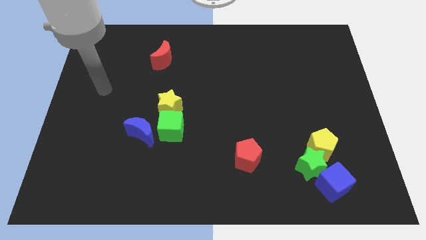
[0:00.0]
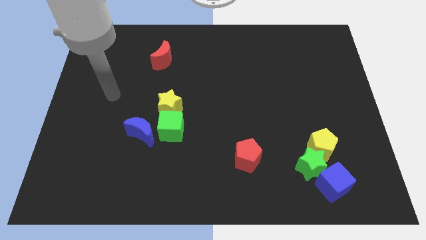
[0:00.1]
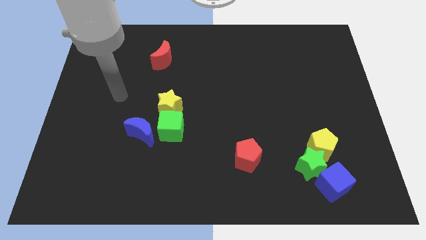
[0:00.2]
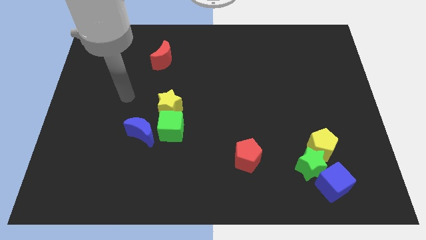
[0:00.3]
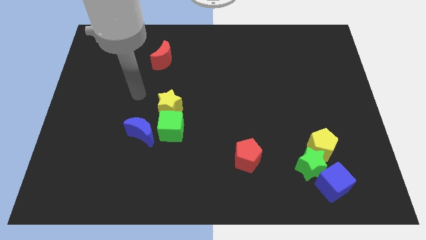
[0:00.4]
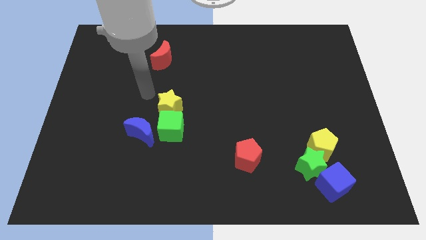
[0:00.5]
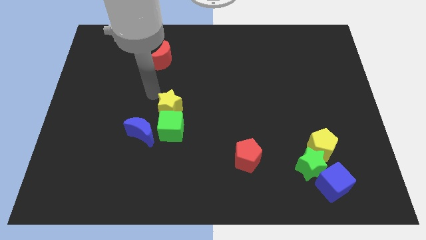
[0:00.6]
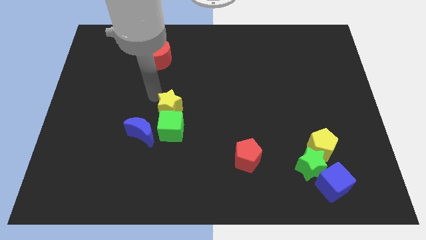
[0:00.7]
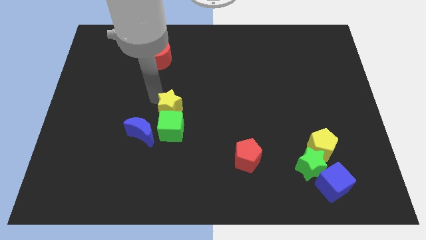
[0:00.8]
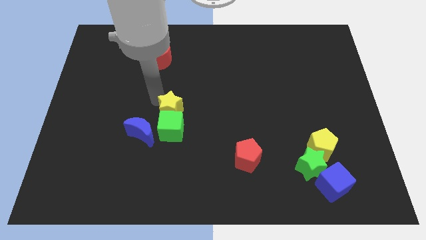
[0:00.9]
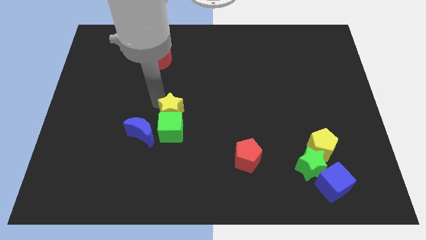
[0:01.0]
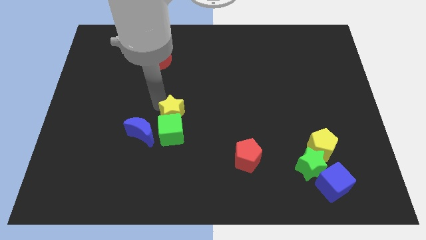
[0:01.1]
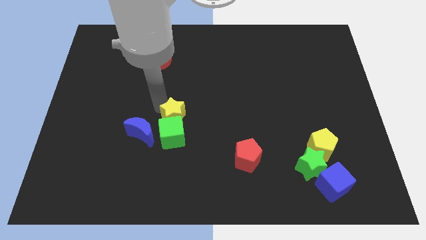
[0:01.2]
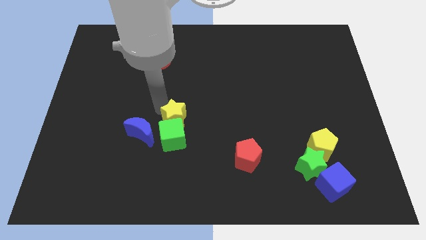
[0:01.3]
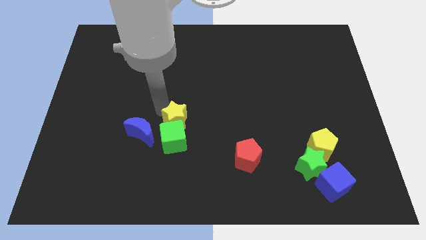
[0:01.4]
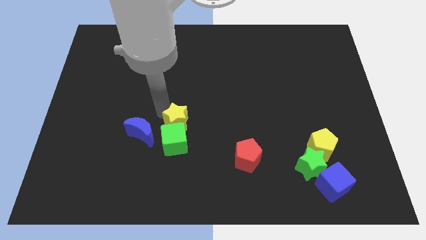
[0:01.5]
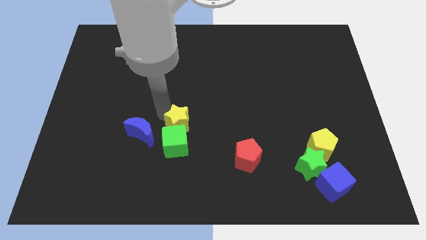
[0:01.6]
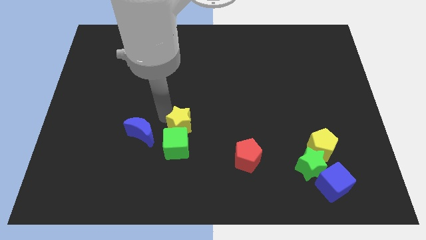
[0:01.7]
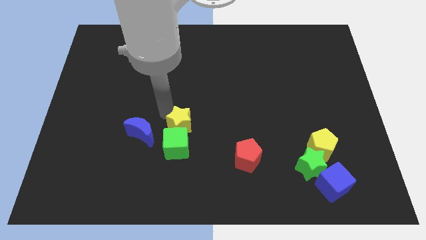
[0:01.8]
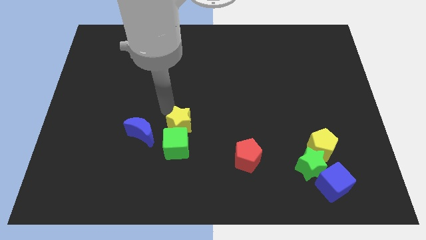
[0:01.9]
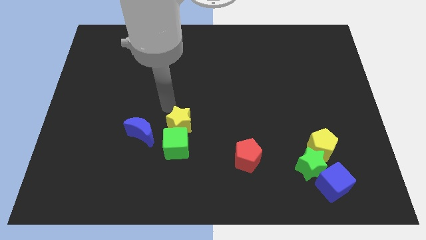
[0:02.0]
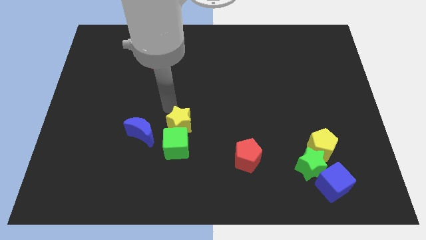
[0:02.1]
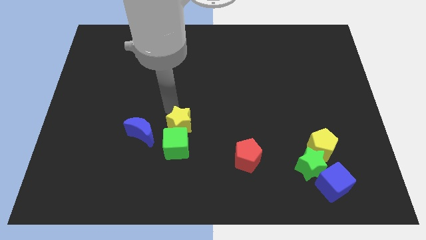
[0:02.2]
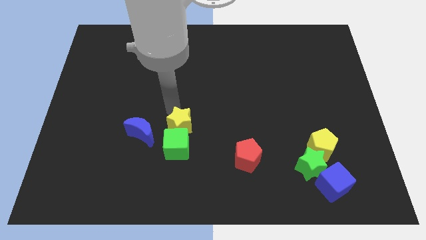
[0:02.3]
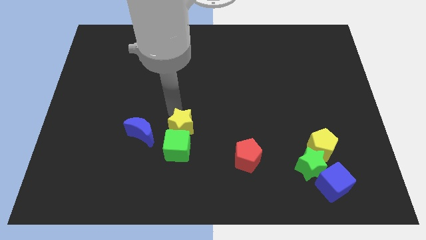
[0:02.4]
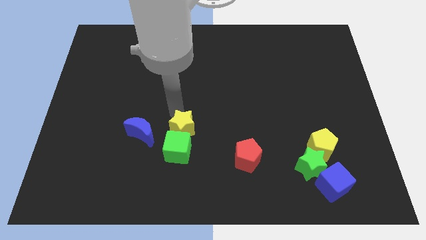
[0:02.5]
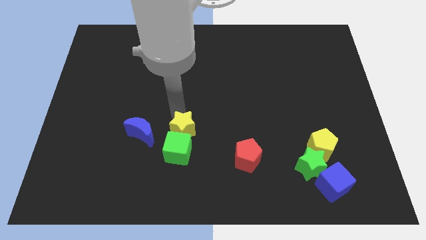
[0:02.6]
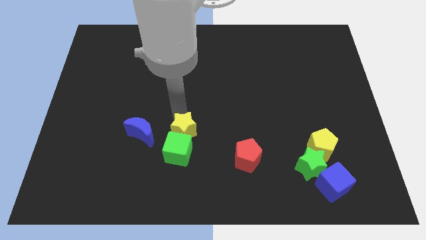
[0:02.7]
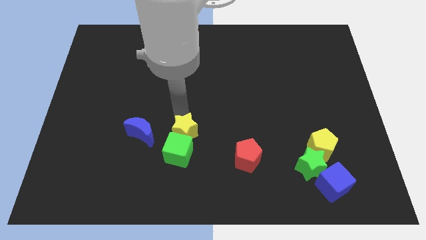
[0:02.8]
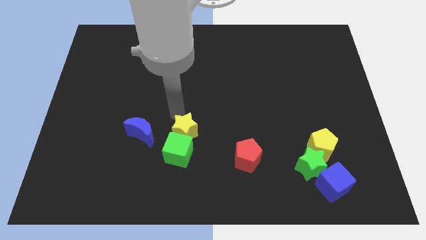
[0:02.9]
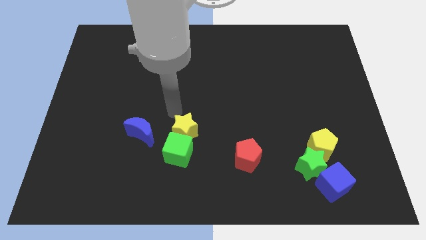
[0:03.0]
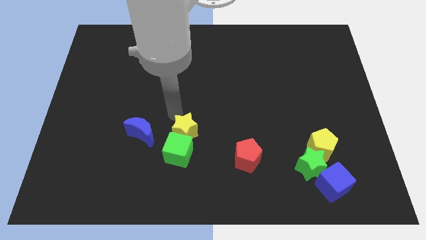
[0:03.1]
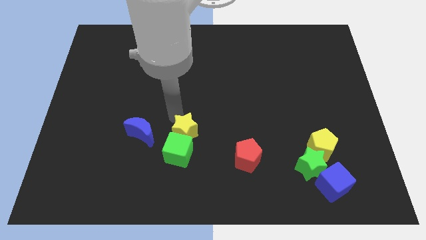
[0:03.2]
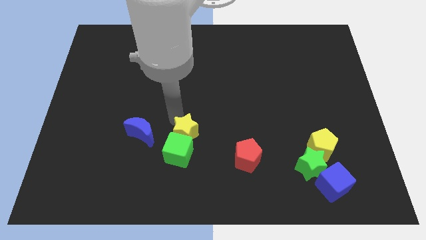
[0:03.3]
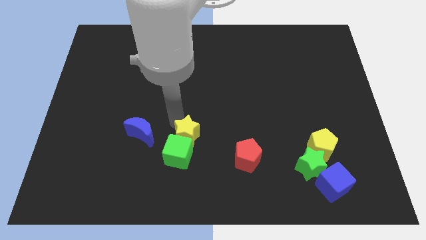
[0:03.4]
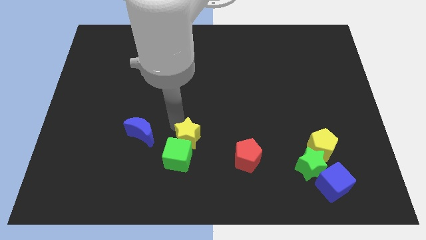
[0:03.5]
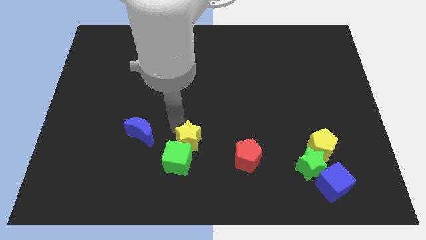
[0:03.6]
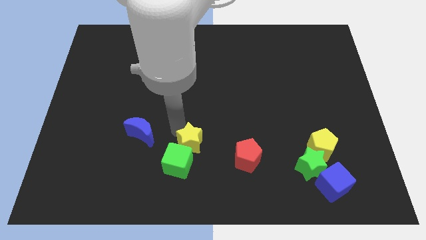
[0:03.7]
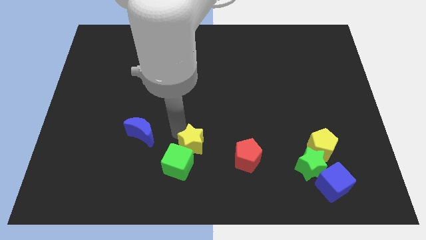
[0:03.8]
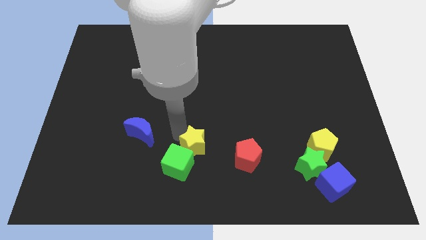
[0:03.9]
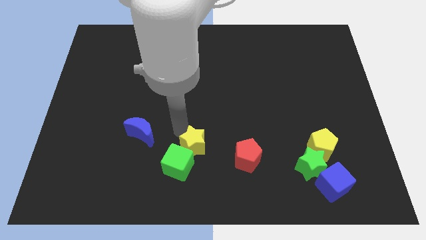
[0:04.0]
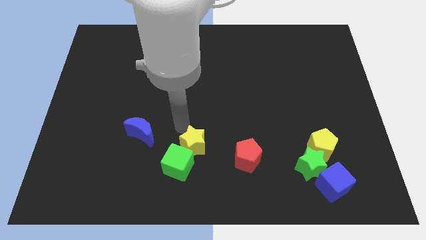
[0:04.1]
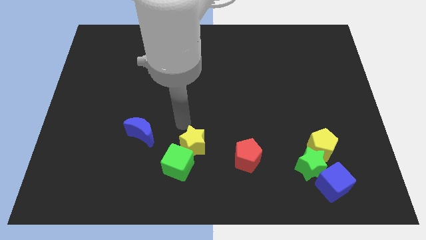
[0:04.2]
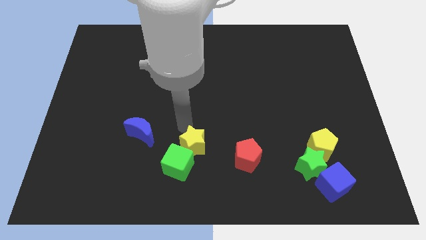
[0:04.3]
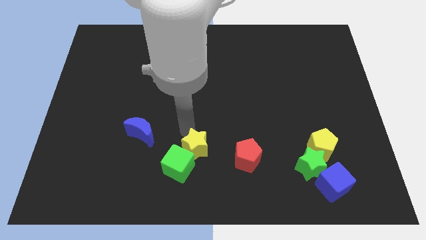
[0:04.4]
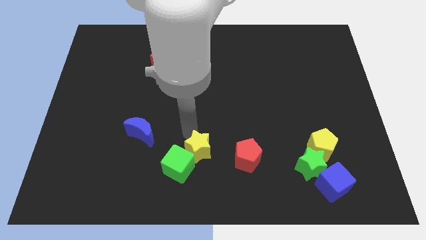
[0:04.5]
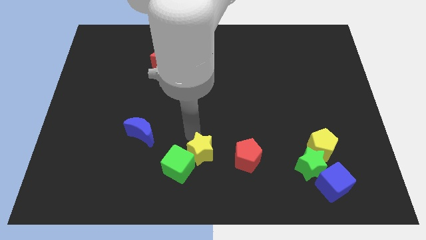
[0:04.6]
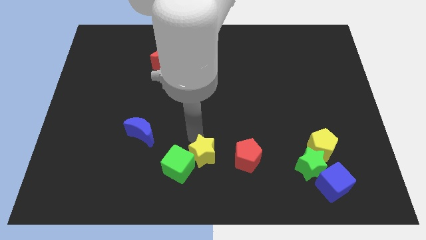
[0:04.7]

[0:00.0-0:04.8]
slide the yellow star to the bottom side
